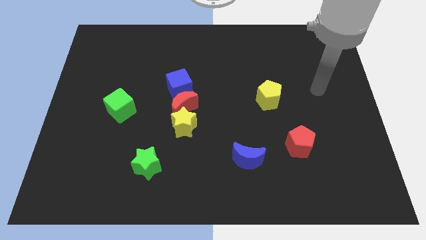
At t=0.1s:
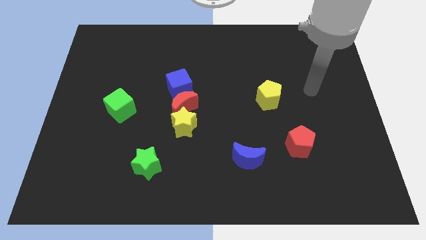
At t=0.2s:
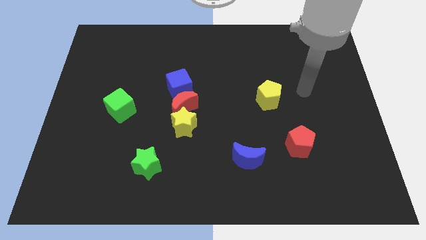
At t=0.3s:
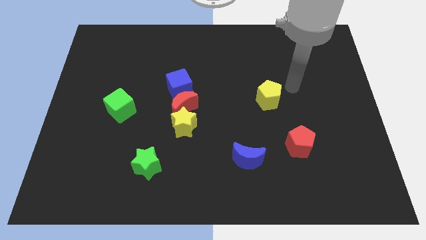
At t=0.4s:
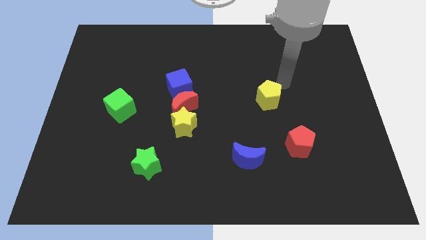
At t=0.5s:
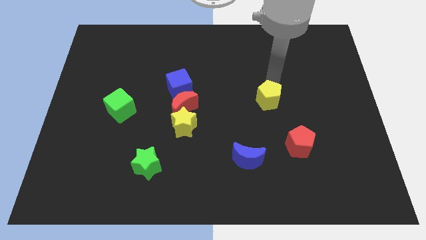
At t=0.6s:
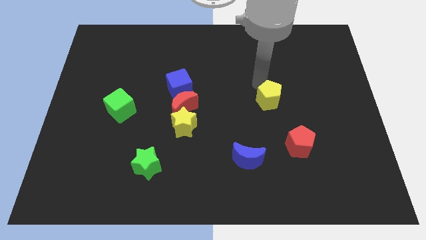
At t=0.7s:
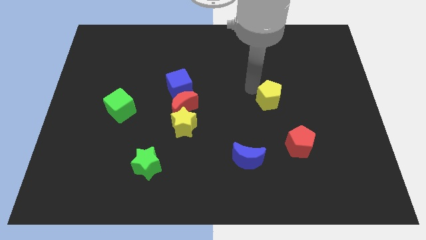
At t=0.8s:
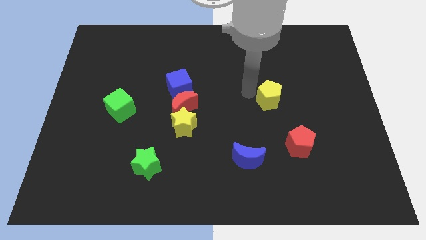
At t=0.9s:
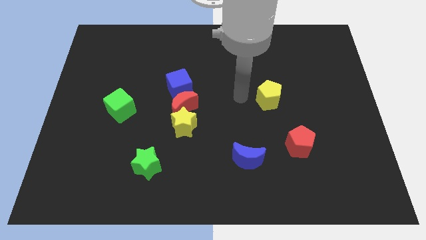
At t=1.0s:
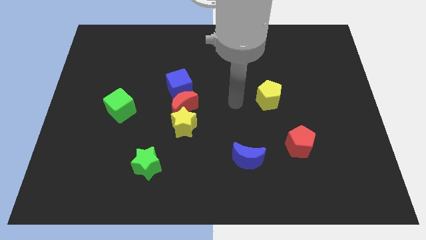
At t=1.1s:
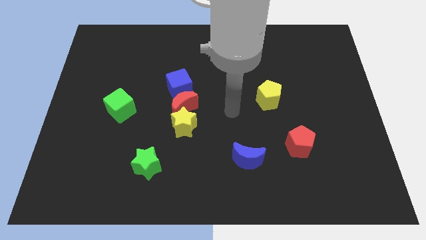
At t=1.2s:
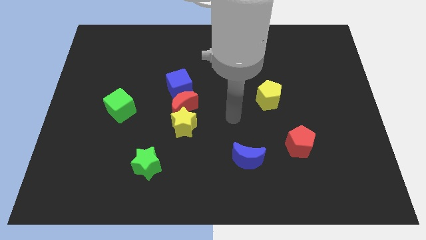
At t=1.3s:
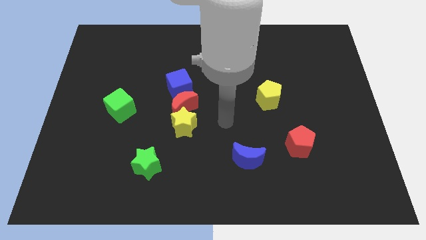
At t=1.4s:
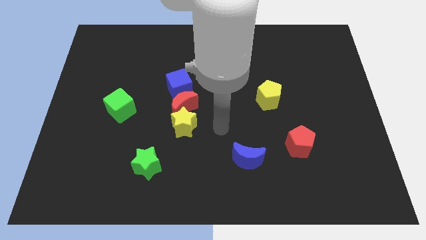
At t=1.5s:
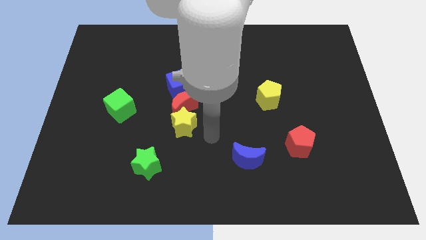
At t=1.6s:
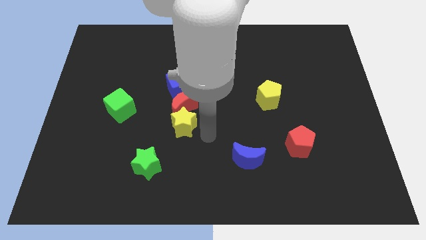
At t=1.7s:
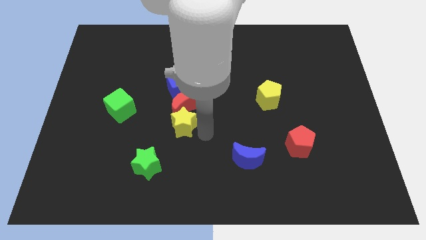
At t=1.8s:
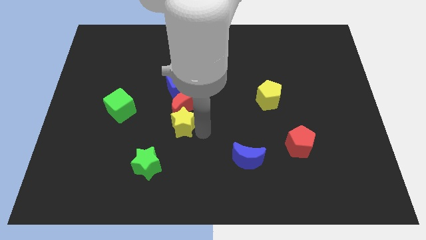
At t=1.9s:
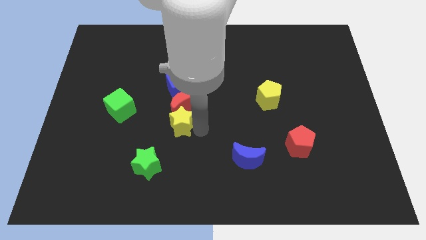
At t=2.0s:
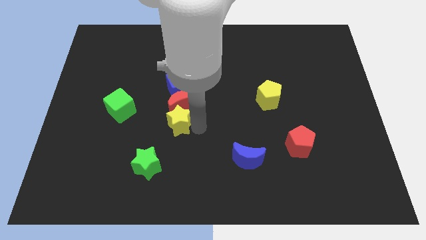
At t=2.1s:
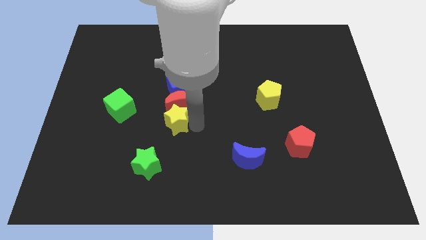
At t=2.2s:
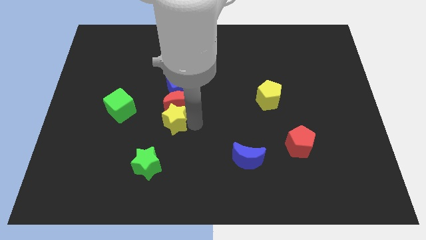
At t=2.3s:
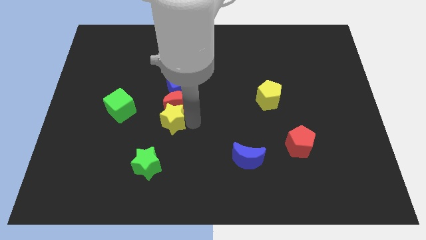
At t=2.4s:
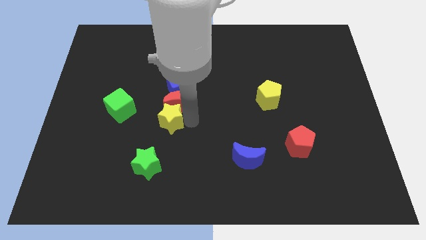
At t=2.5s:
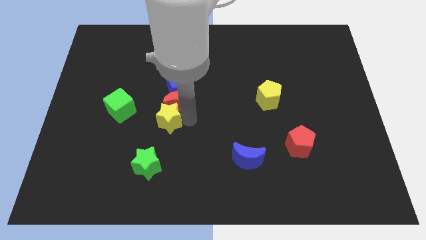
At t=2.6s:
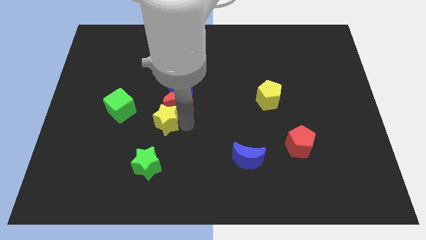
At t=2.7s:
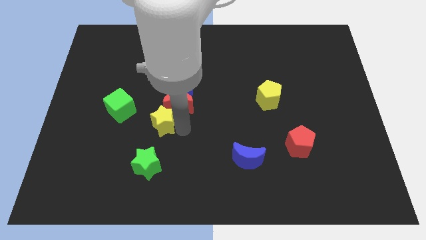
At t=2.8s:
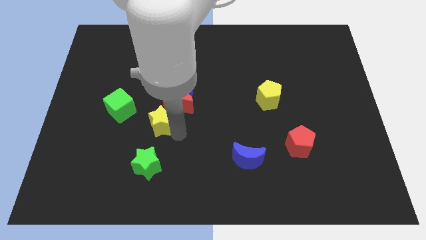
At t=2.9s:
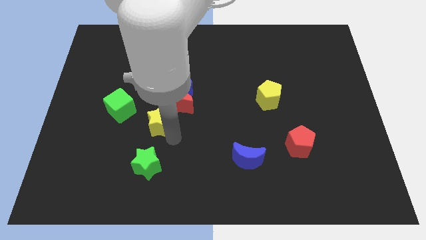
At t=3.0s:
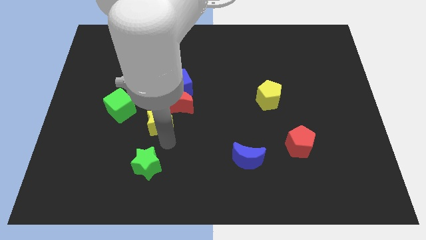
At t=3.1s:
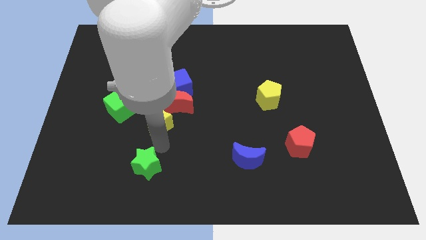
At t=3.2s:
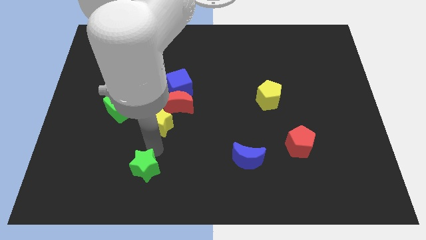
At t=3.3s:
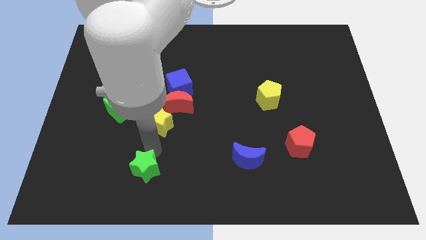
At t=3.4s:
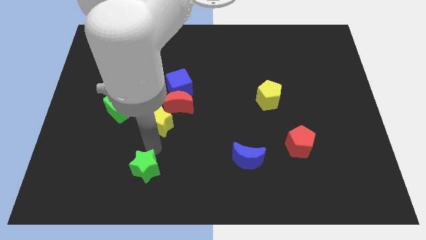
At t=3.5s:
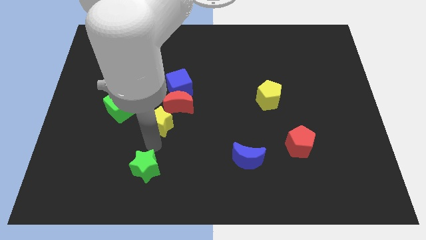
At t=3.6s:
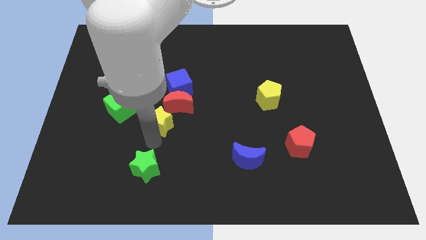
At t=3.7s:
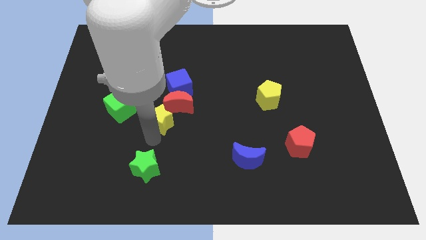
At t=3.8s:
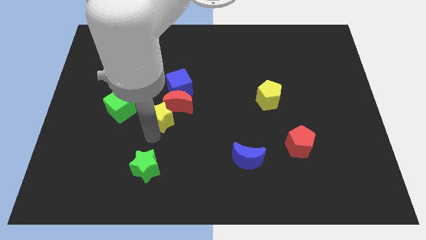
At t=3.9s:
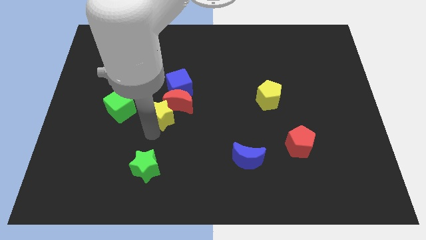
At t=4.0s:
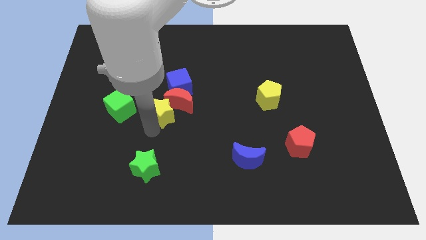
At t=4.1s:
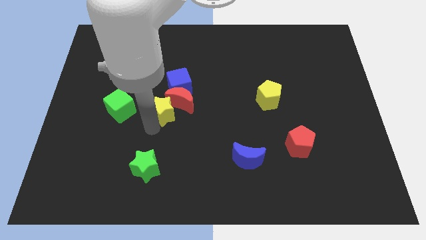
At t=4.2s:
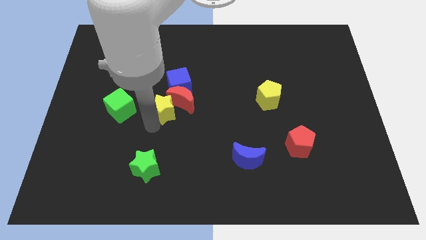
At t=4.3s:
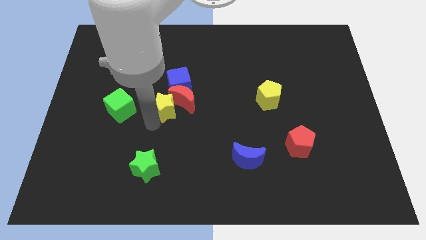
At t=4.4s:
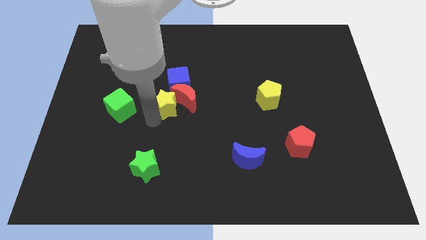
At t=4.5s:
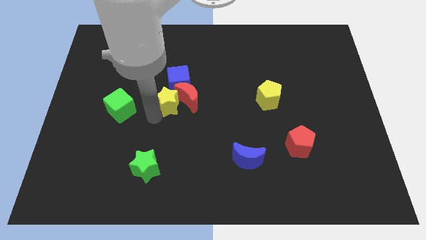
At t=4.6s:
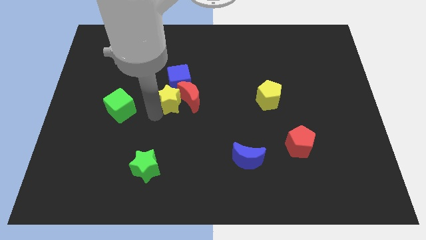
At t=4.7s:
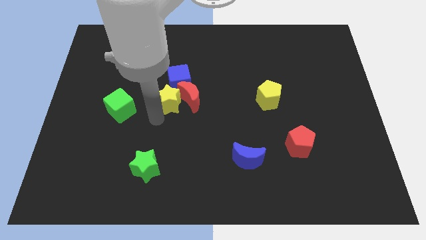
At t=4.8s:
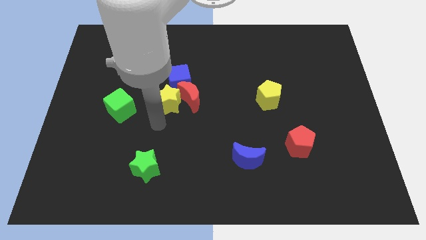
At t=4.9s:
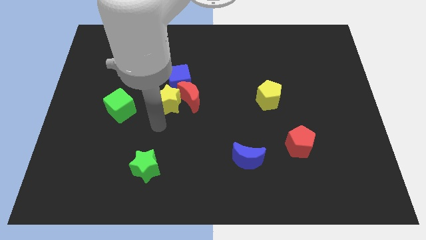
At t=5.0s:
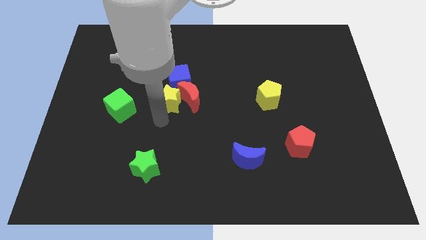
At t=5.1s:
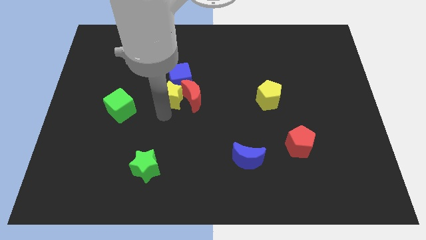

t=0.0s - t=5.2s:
move the yellow star to the blue cube

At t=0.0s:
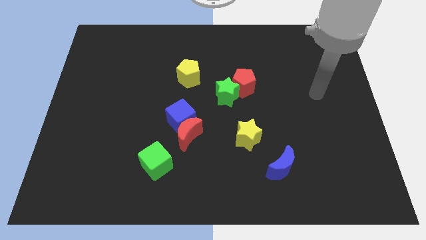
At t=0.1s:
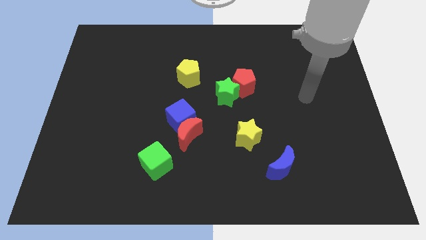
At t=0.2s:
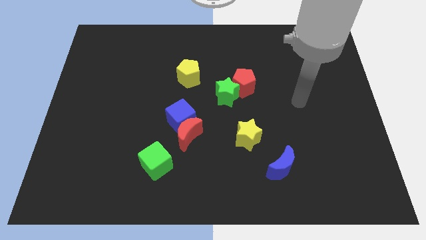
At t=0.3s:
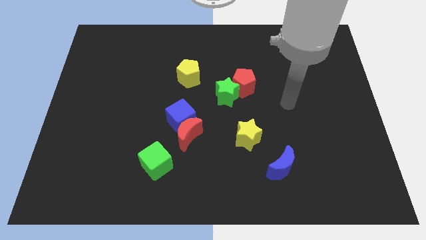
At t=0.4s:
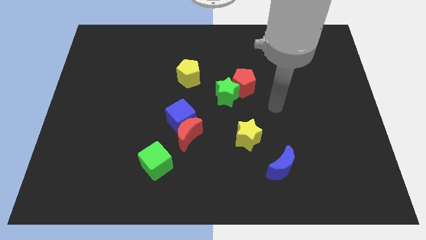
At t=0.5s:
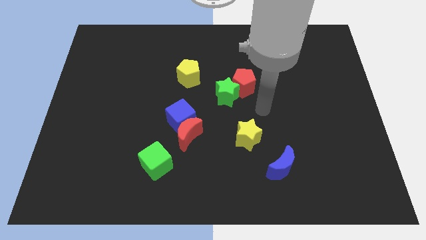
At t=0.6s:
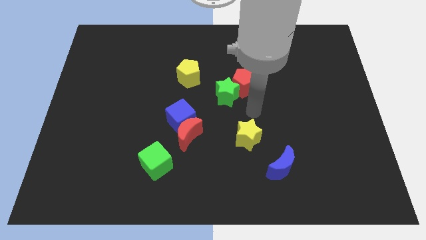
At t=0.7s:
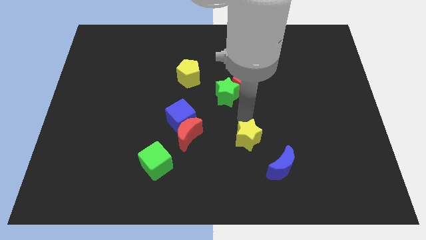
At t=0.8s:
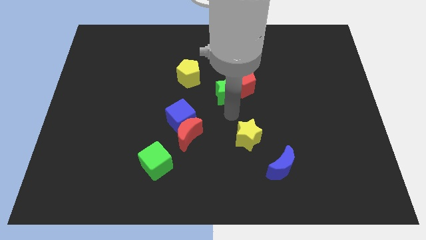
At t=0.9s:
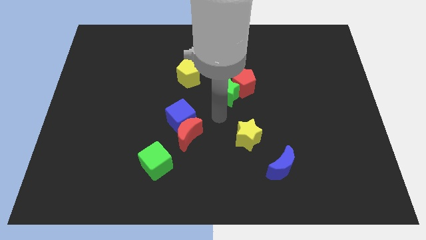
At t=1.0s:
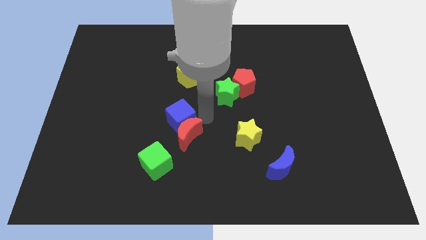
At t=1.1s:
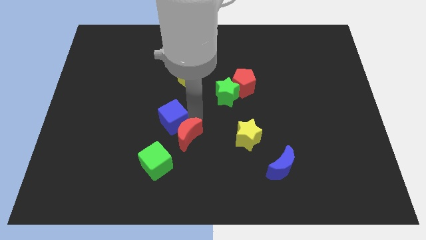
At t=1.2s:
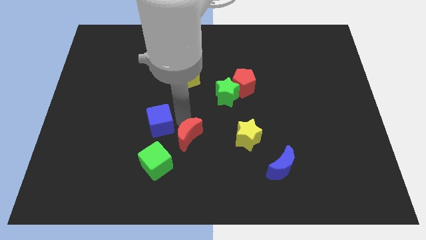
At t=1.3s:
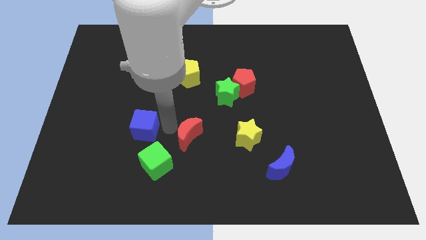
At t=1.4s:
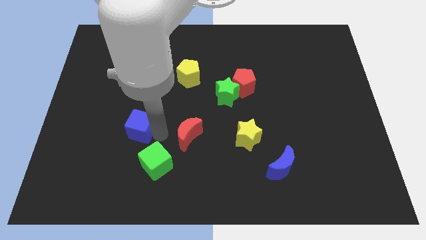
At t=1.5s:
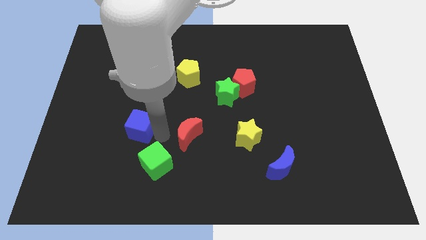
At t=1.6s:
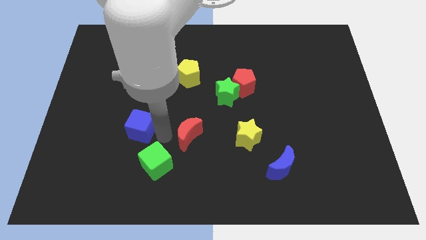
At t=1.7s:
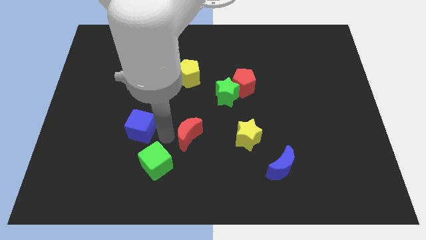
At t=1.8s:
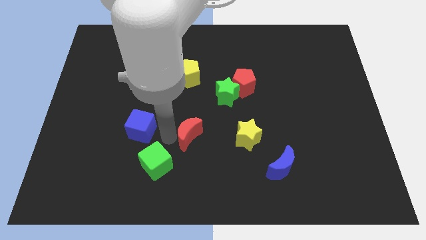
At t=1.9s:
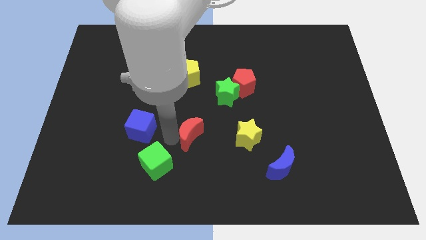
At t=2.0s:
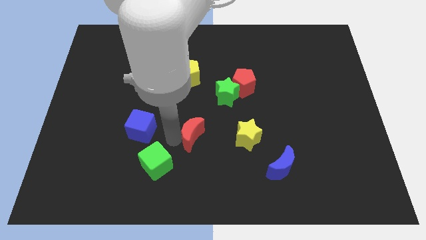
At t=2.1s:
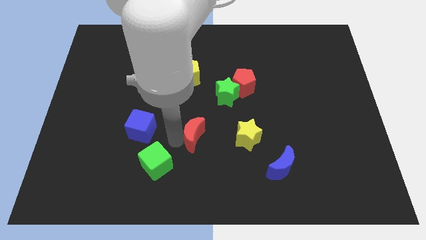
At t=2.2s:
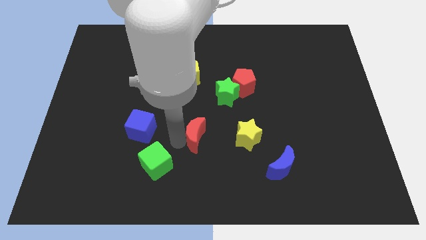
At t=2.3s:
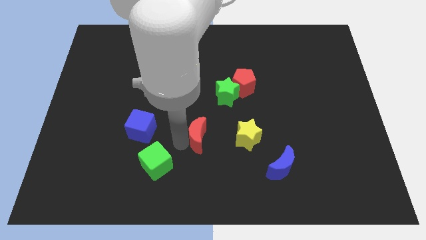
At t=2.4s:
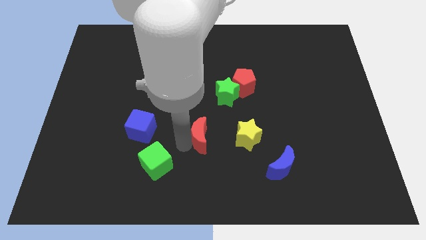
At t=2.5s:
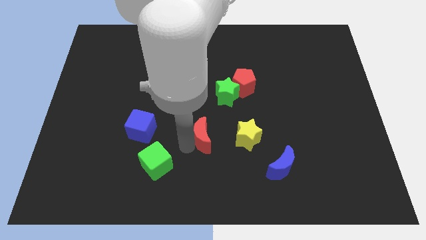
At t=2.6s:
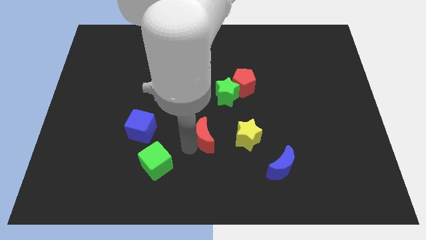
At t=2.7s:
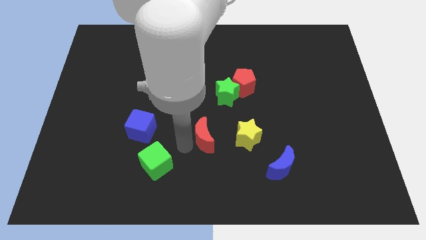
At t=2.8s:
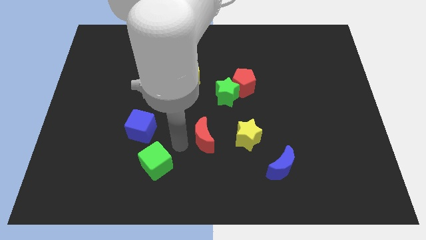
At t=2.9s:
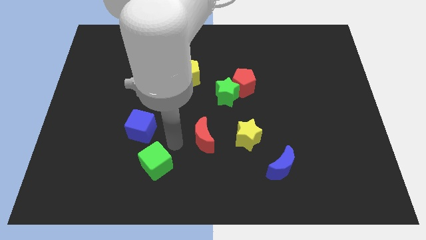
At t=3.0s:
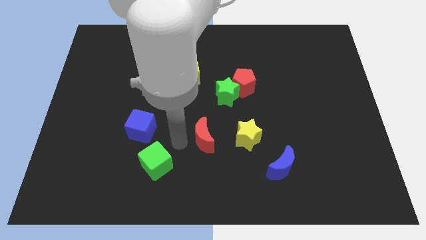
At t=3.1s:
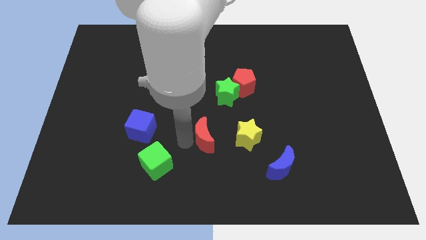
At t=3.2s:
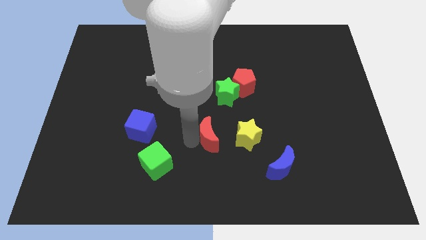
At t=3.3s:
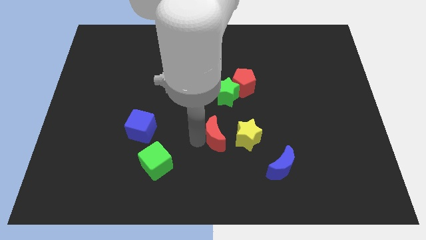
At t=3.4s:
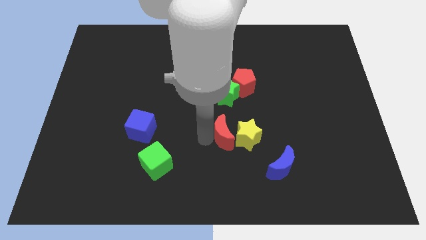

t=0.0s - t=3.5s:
move the red moon next to the yellow star
